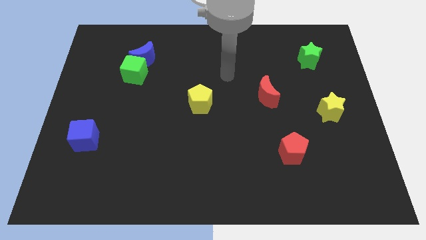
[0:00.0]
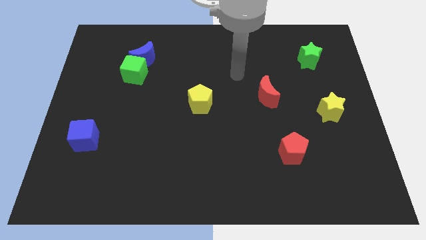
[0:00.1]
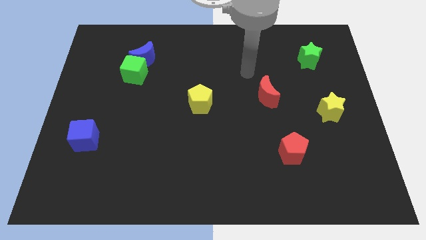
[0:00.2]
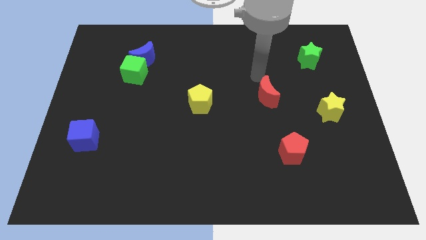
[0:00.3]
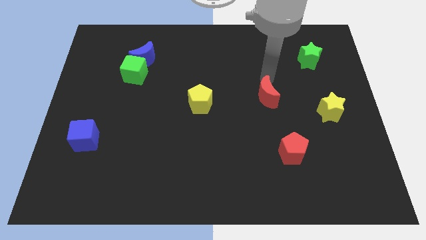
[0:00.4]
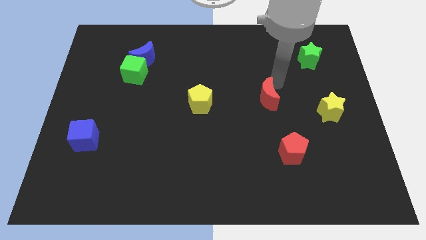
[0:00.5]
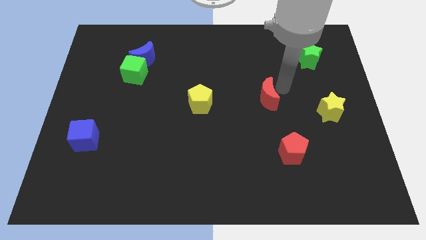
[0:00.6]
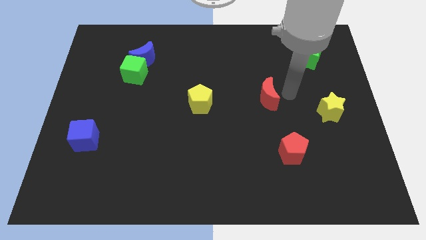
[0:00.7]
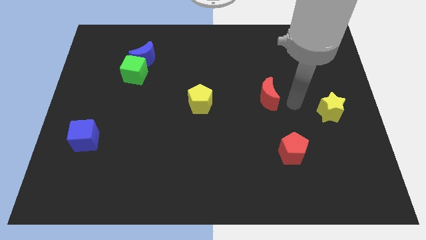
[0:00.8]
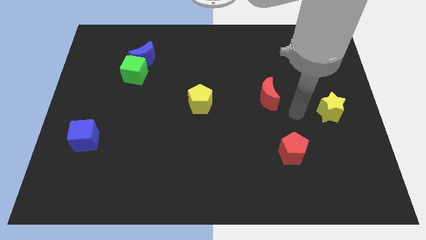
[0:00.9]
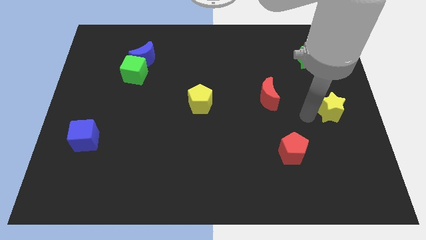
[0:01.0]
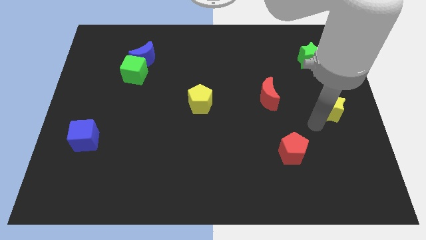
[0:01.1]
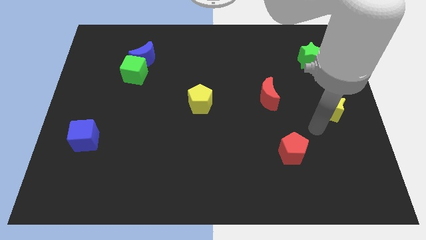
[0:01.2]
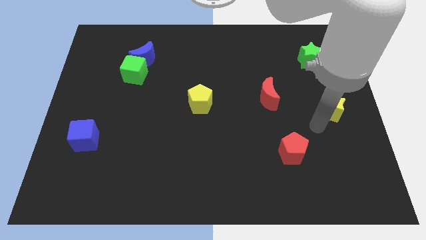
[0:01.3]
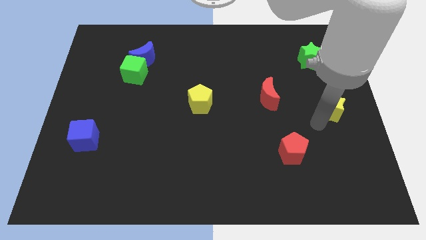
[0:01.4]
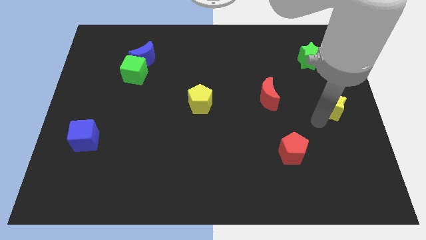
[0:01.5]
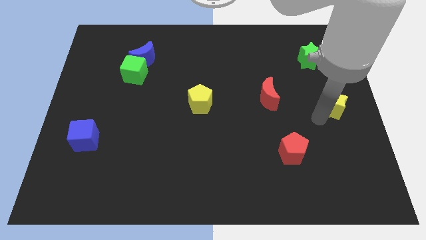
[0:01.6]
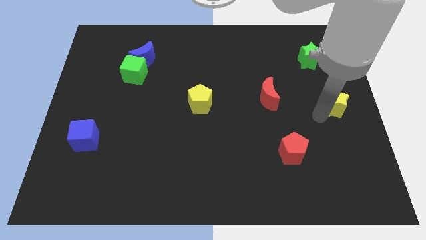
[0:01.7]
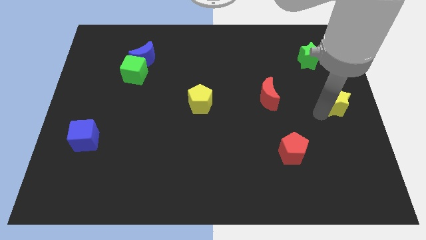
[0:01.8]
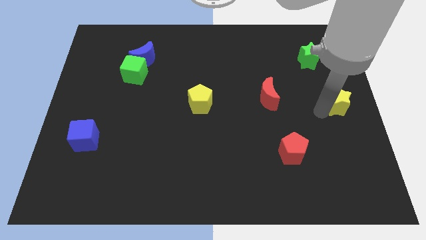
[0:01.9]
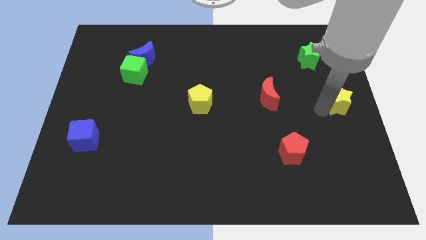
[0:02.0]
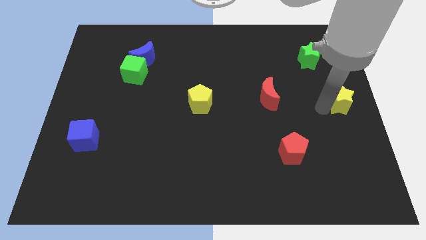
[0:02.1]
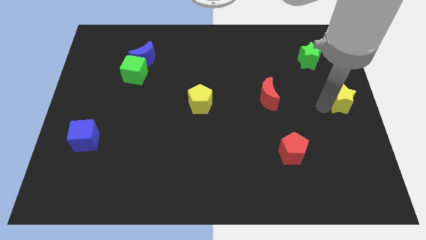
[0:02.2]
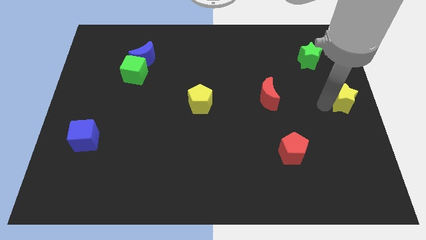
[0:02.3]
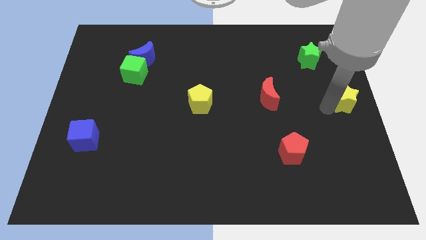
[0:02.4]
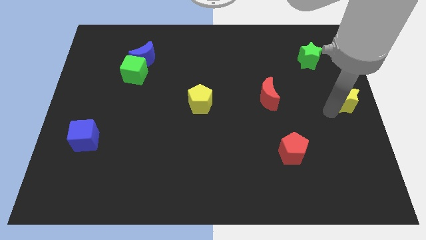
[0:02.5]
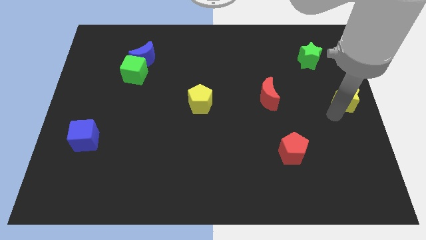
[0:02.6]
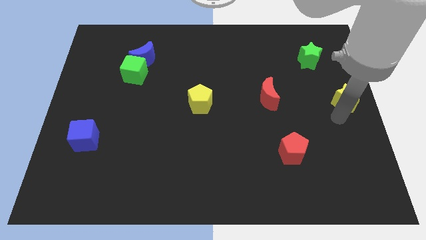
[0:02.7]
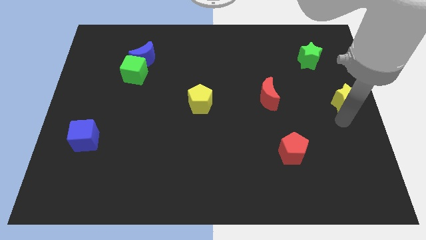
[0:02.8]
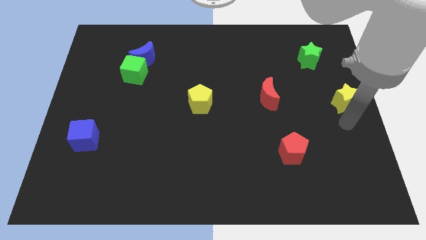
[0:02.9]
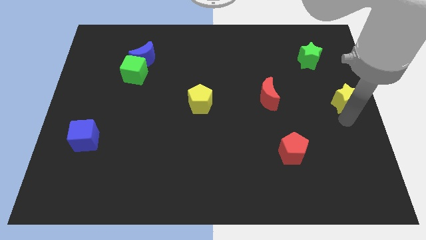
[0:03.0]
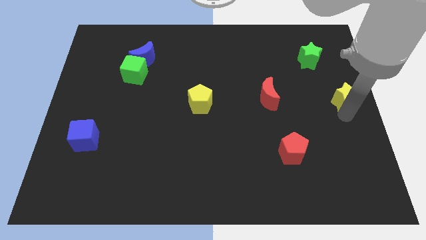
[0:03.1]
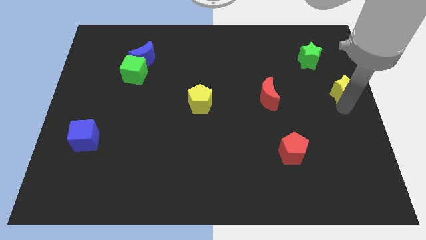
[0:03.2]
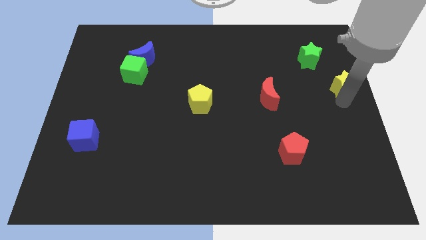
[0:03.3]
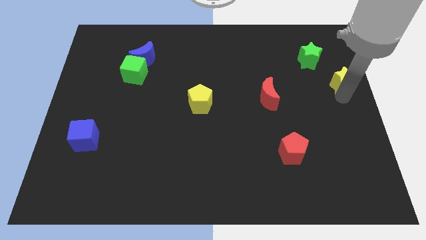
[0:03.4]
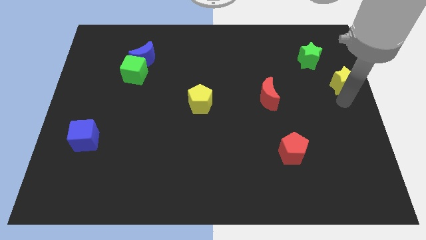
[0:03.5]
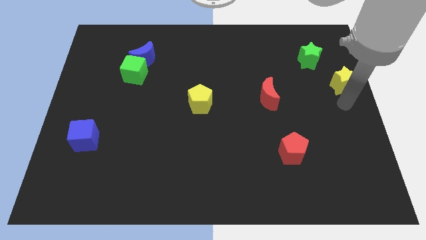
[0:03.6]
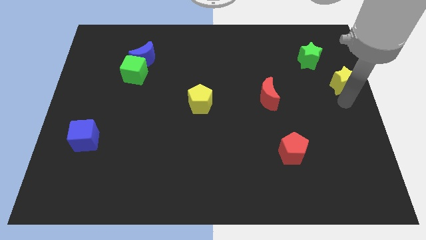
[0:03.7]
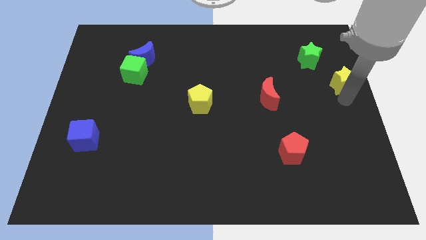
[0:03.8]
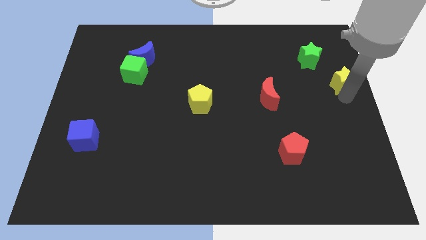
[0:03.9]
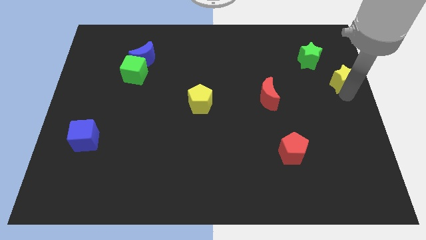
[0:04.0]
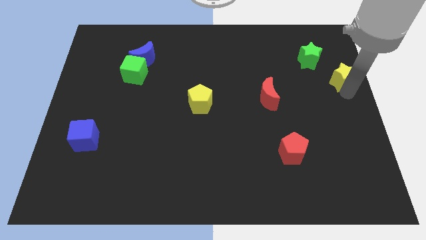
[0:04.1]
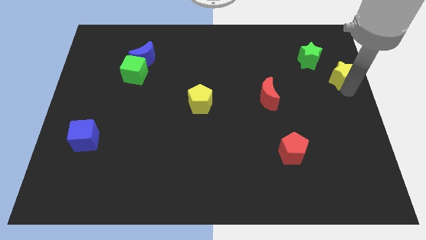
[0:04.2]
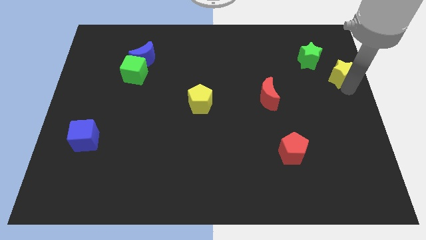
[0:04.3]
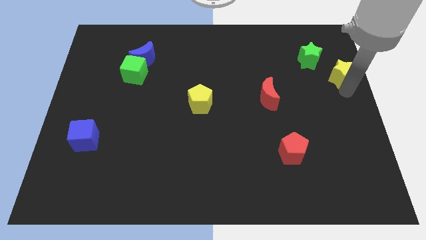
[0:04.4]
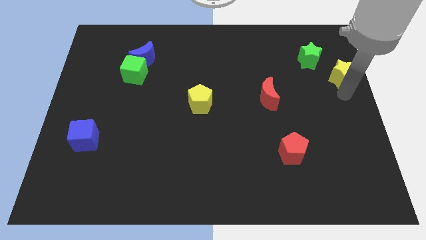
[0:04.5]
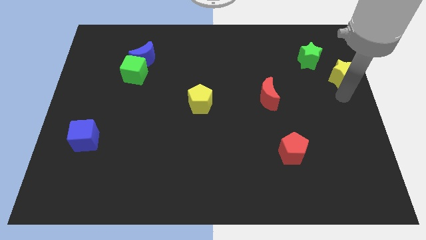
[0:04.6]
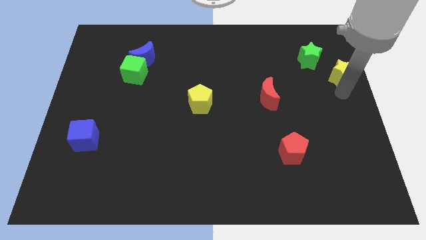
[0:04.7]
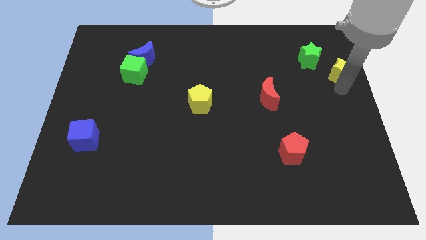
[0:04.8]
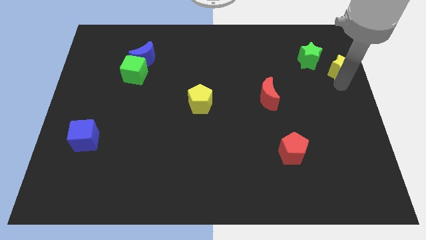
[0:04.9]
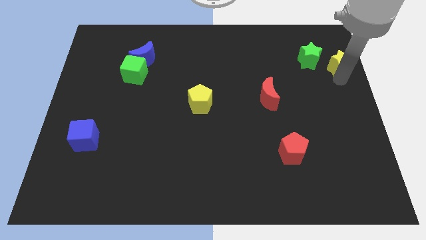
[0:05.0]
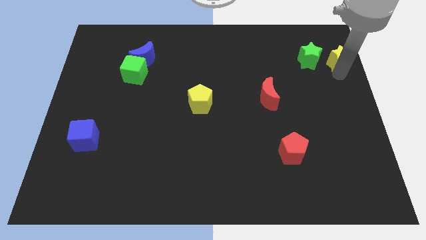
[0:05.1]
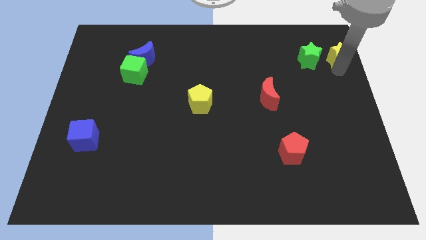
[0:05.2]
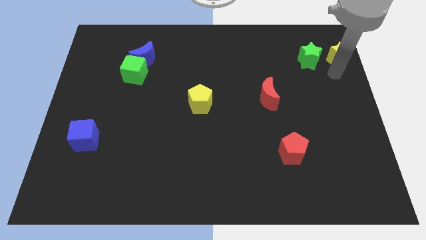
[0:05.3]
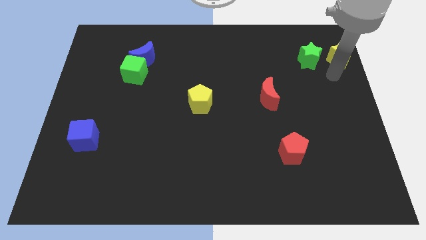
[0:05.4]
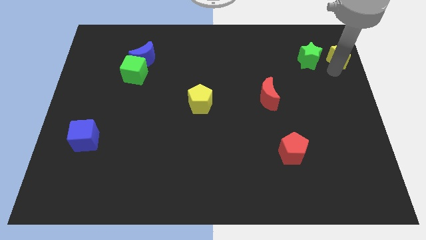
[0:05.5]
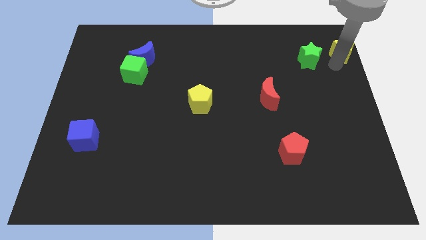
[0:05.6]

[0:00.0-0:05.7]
push the yellow star to the top right

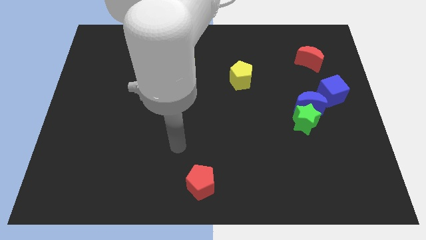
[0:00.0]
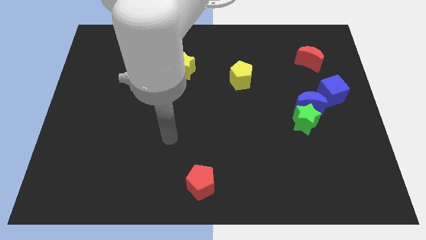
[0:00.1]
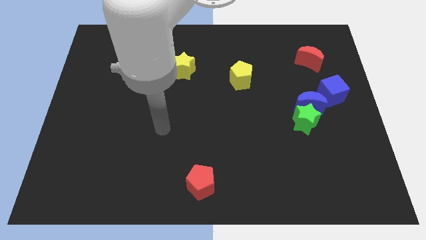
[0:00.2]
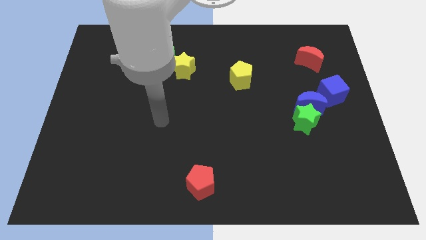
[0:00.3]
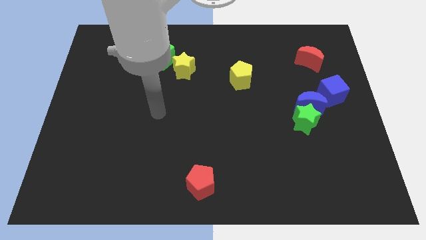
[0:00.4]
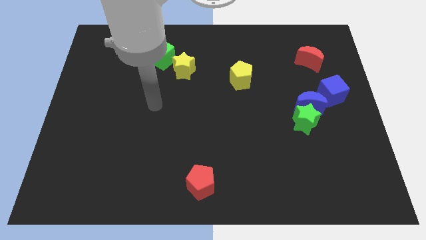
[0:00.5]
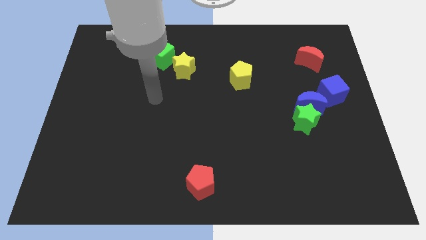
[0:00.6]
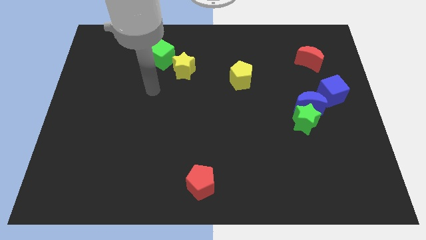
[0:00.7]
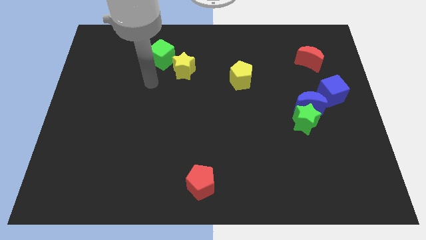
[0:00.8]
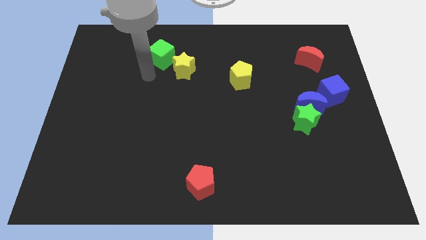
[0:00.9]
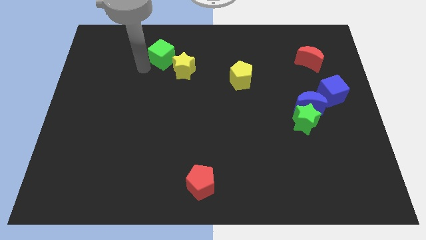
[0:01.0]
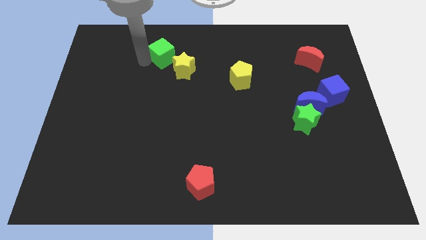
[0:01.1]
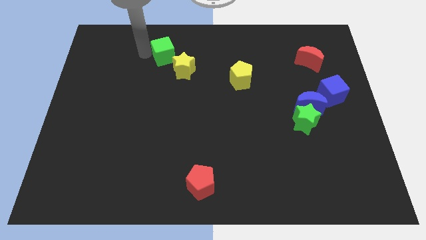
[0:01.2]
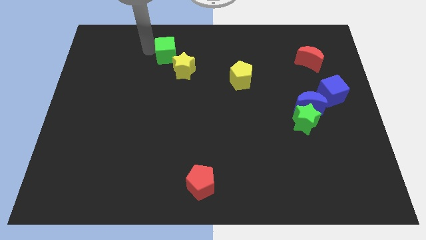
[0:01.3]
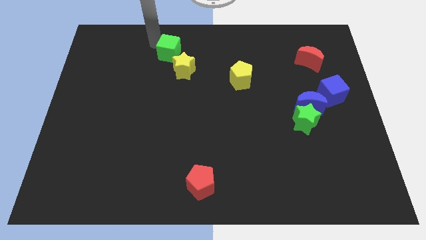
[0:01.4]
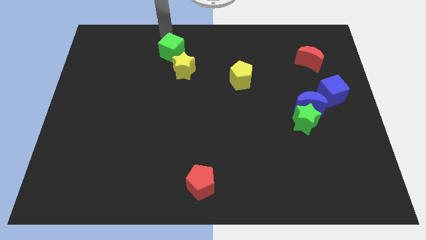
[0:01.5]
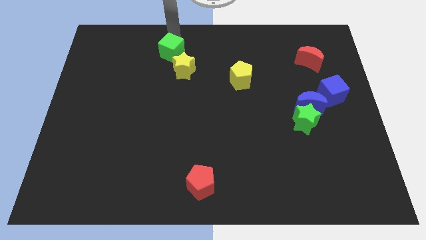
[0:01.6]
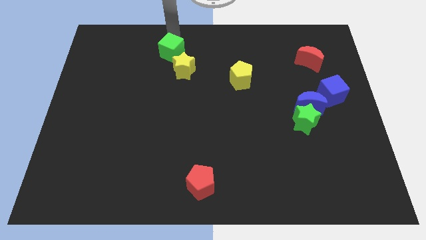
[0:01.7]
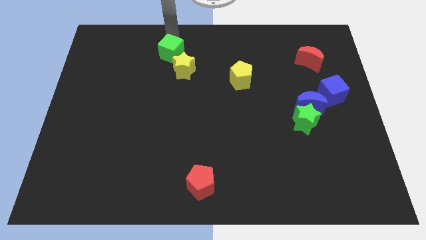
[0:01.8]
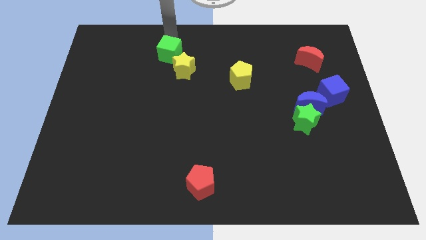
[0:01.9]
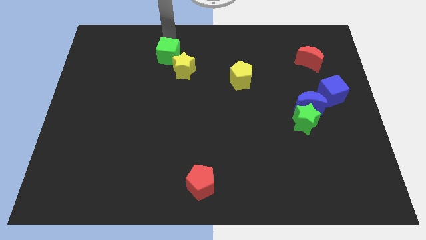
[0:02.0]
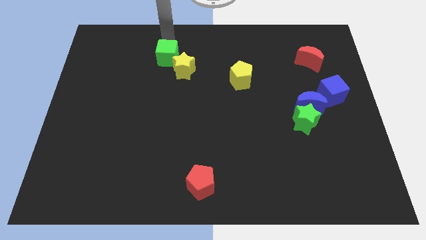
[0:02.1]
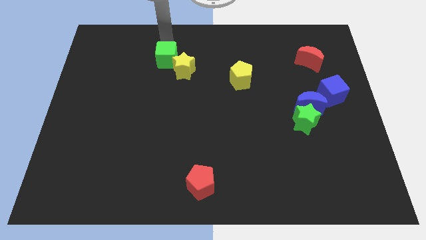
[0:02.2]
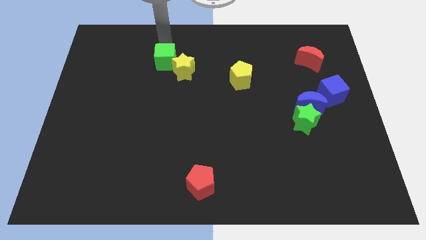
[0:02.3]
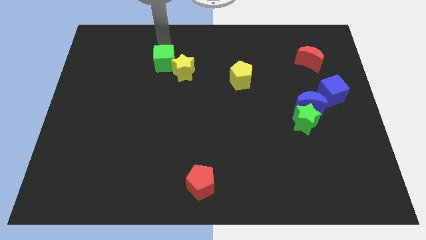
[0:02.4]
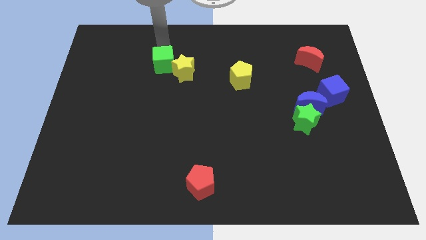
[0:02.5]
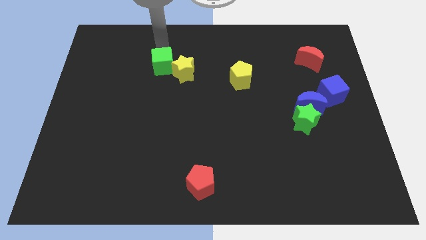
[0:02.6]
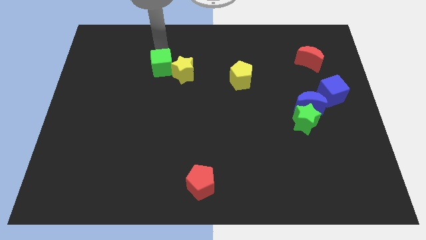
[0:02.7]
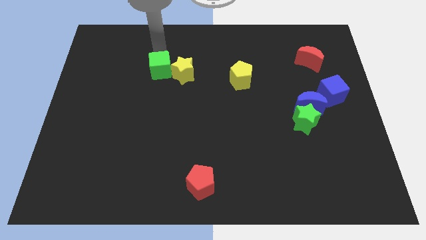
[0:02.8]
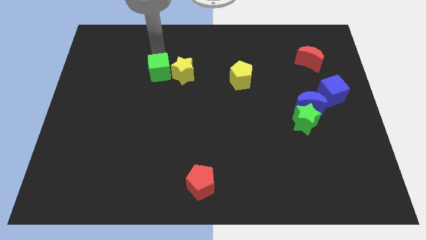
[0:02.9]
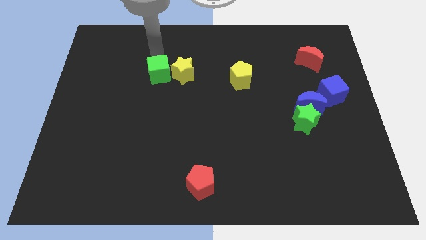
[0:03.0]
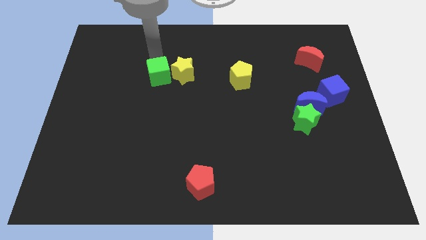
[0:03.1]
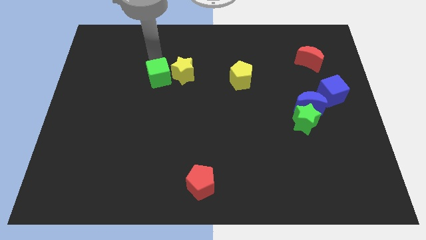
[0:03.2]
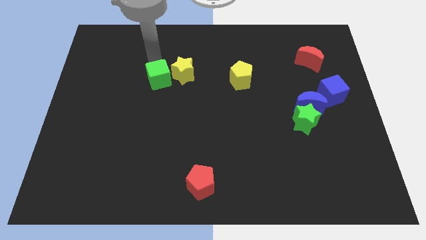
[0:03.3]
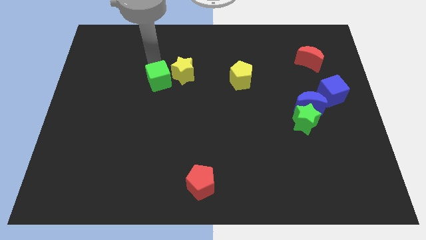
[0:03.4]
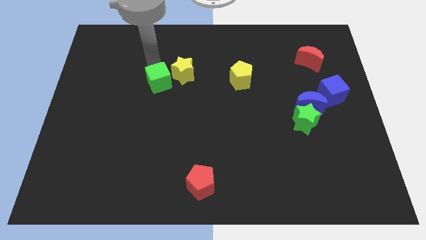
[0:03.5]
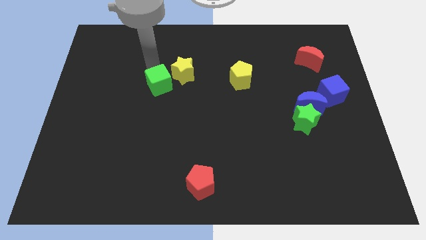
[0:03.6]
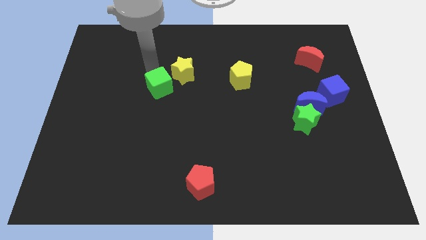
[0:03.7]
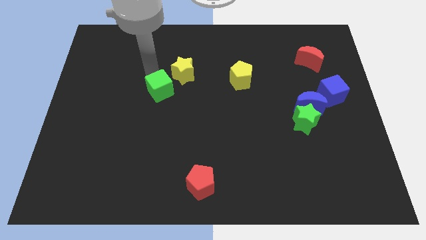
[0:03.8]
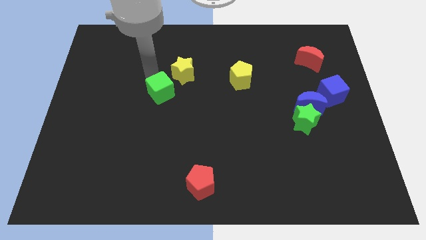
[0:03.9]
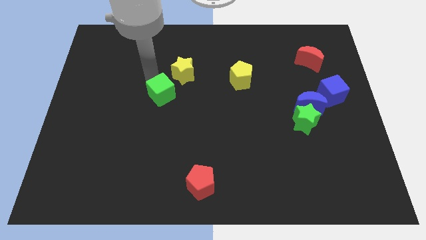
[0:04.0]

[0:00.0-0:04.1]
push the green cube to the middle of the board
